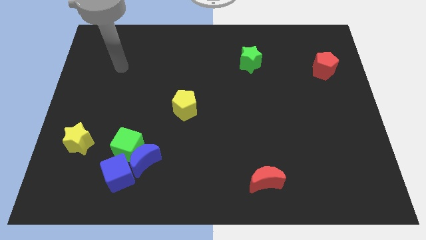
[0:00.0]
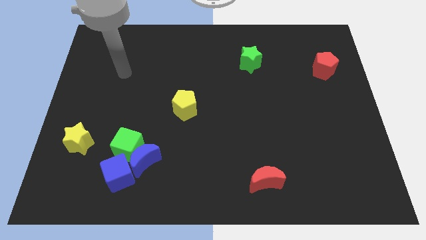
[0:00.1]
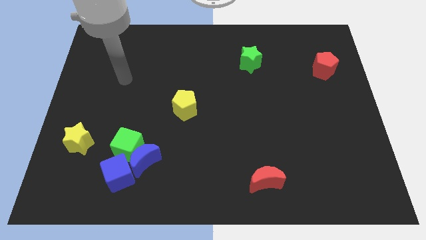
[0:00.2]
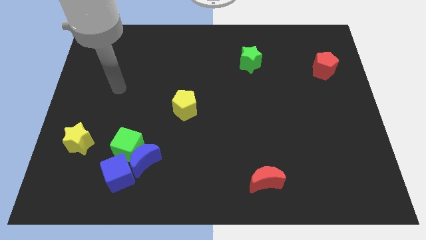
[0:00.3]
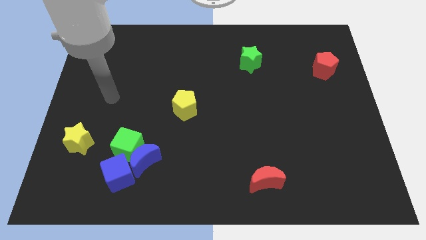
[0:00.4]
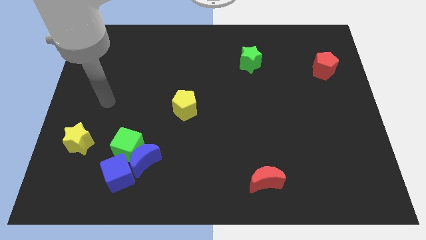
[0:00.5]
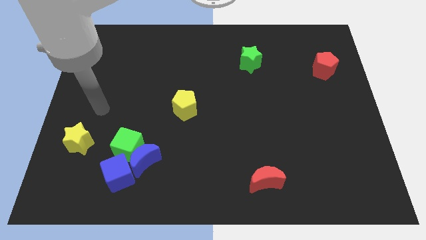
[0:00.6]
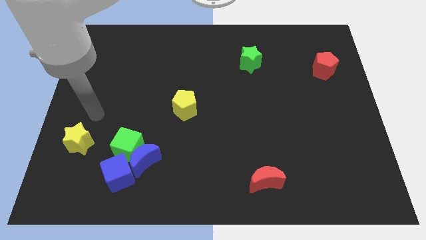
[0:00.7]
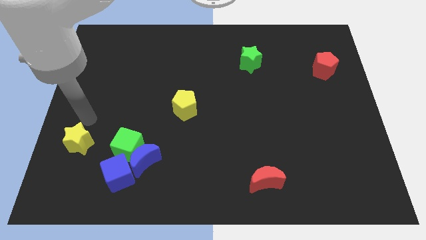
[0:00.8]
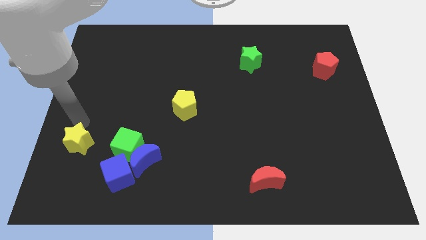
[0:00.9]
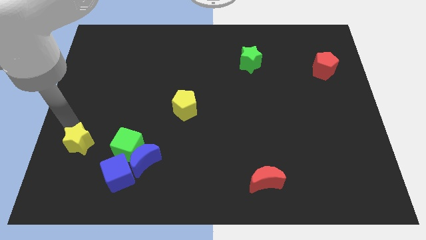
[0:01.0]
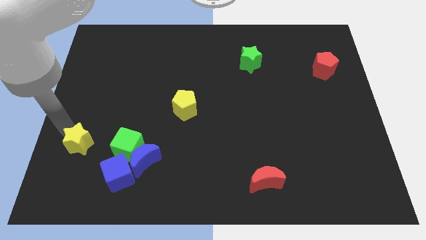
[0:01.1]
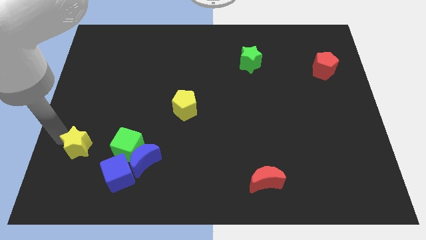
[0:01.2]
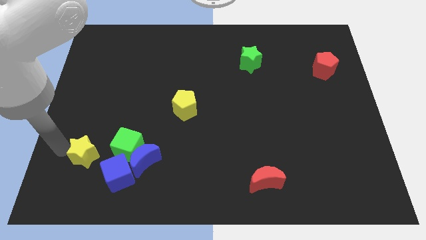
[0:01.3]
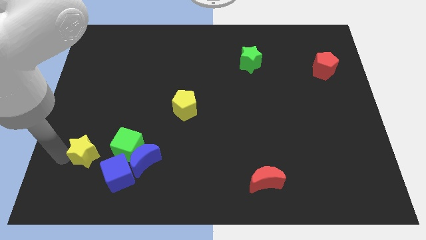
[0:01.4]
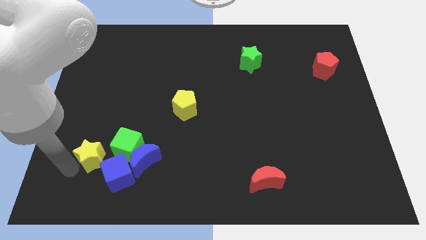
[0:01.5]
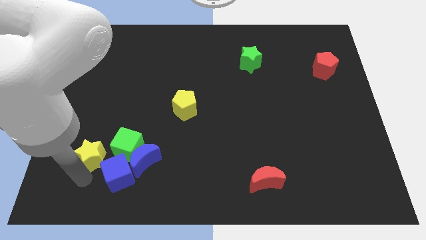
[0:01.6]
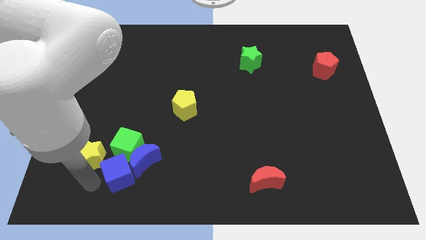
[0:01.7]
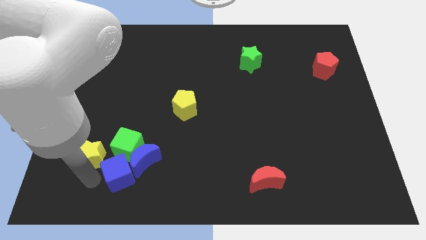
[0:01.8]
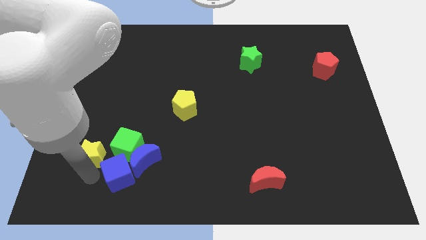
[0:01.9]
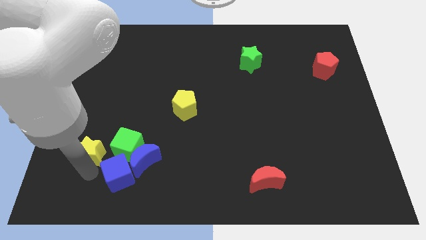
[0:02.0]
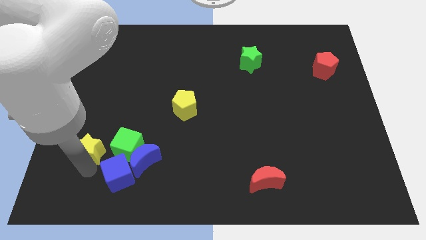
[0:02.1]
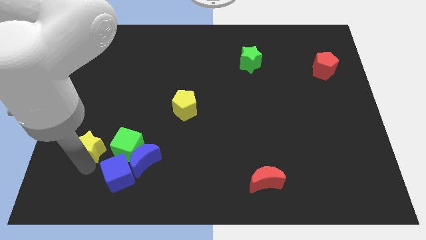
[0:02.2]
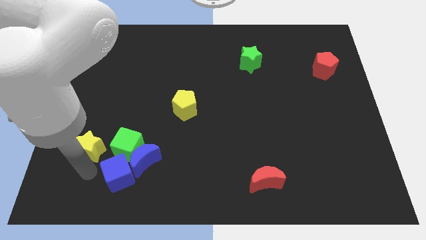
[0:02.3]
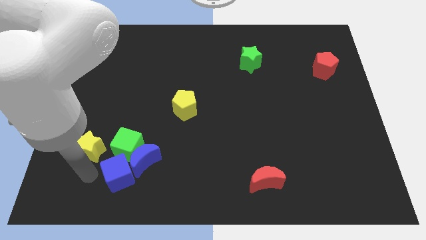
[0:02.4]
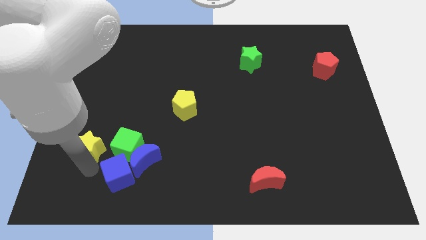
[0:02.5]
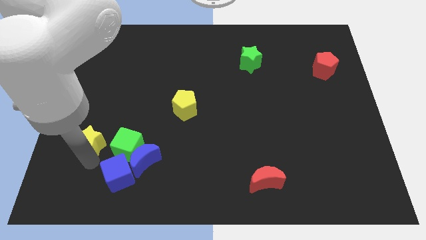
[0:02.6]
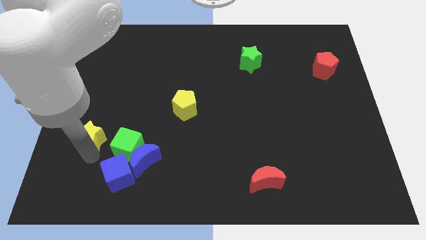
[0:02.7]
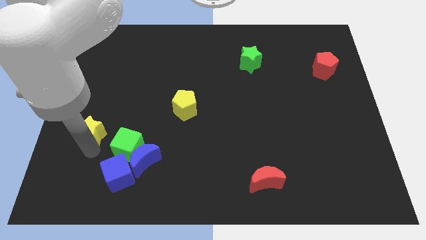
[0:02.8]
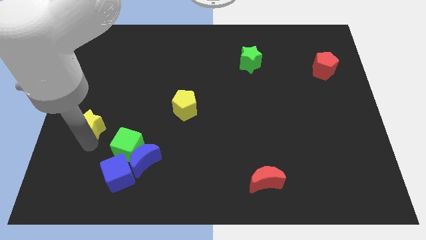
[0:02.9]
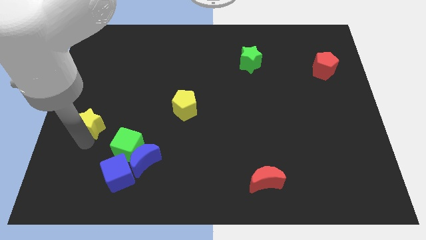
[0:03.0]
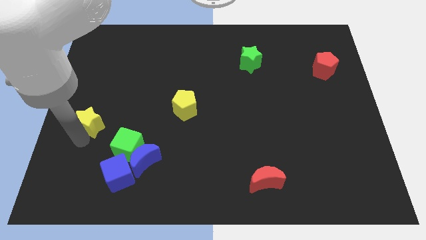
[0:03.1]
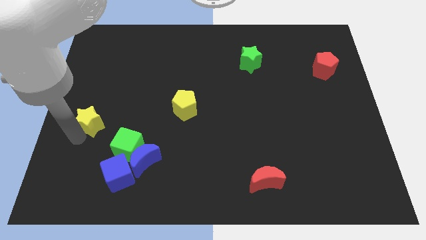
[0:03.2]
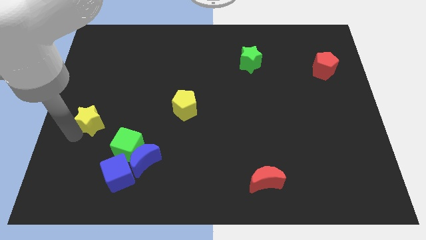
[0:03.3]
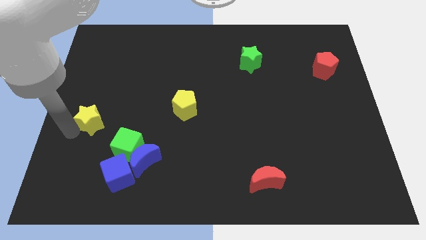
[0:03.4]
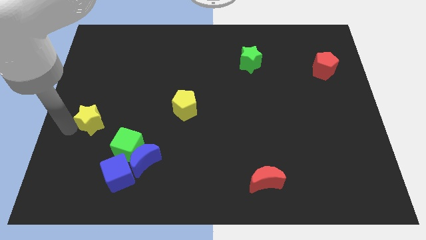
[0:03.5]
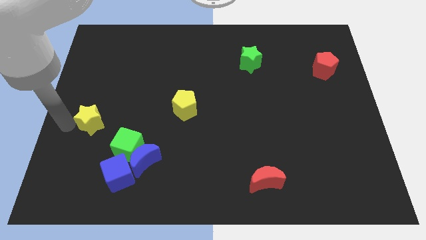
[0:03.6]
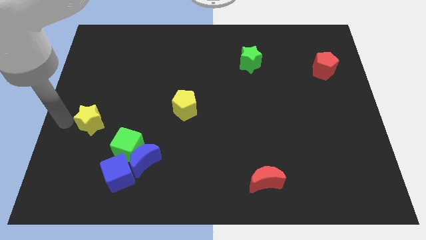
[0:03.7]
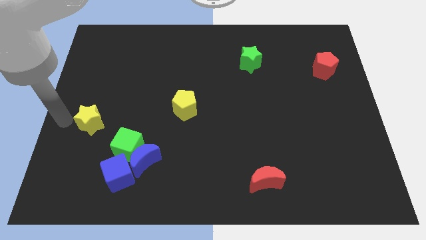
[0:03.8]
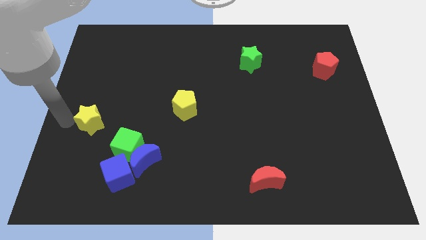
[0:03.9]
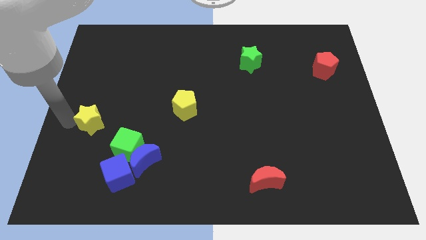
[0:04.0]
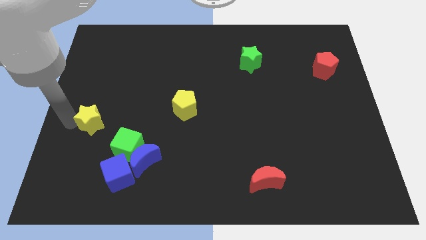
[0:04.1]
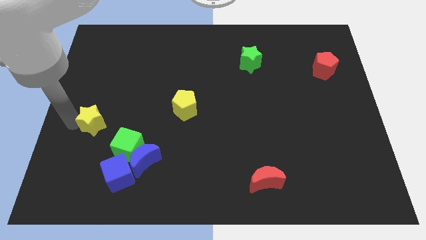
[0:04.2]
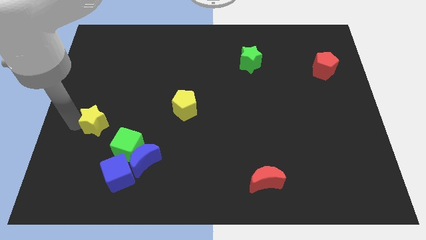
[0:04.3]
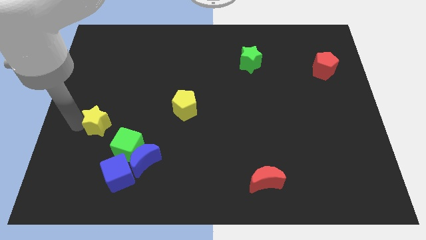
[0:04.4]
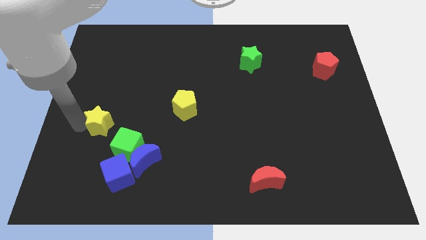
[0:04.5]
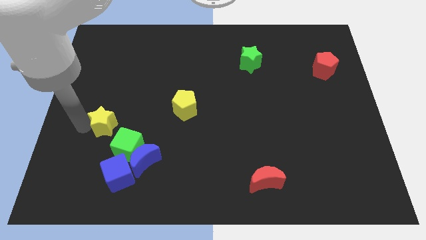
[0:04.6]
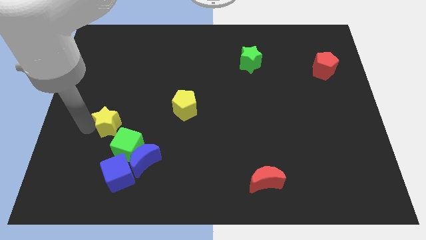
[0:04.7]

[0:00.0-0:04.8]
move the yellow star up and then to the right a little bit

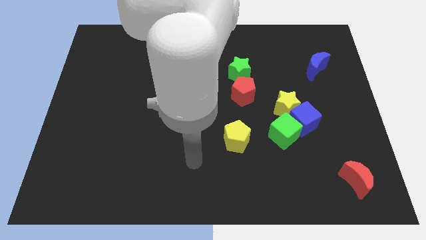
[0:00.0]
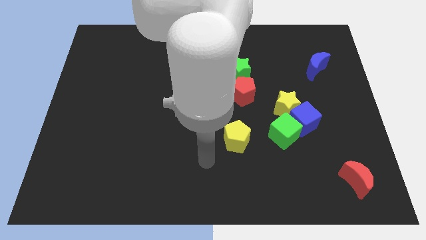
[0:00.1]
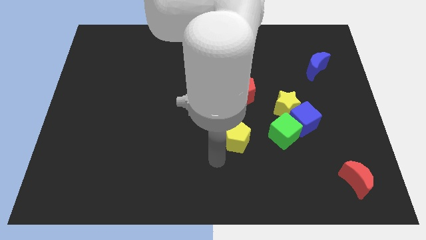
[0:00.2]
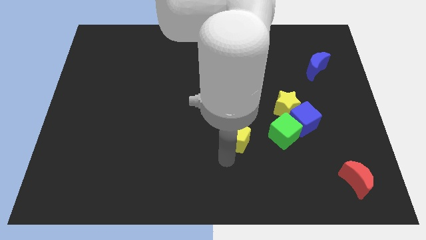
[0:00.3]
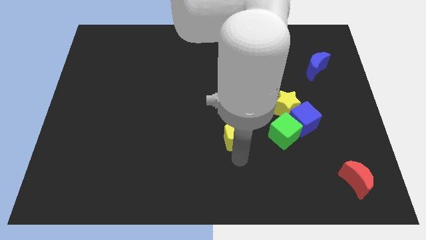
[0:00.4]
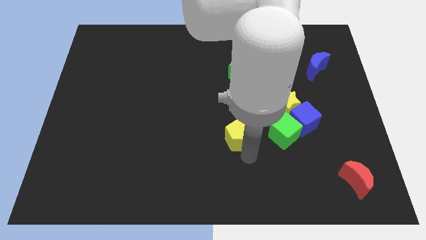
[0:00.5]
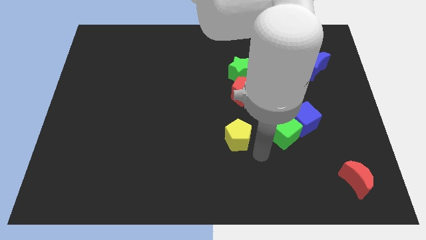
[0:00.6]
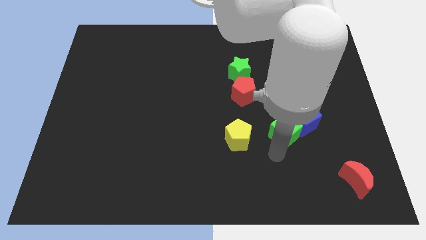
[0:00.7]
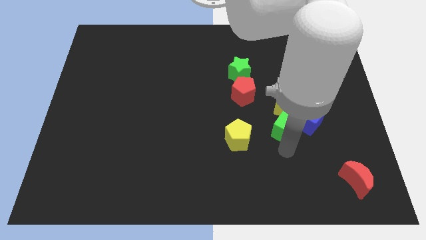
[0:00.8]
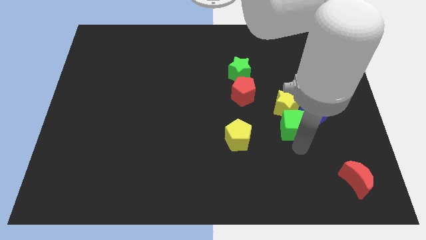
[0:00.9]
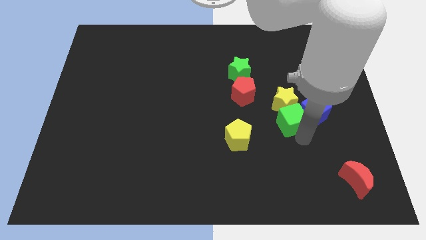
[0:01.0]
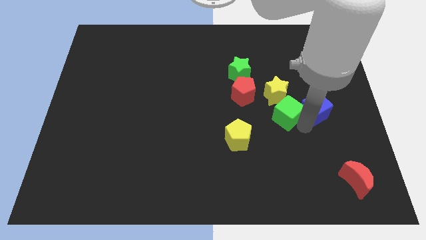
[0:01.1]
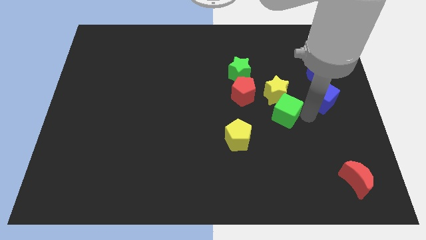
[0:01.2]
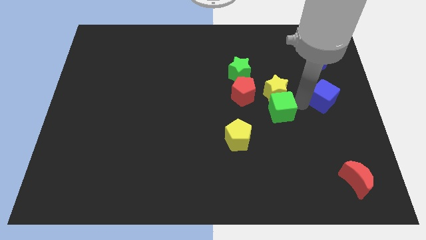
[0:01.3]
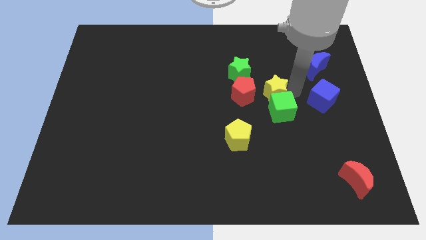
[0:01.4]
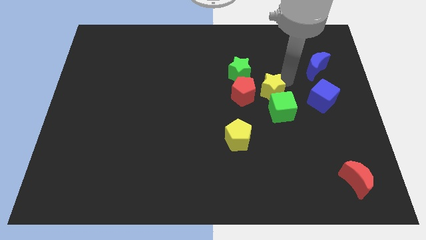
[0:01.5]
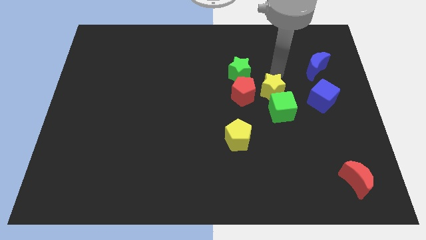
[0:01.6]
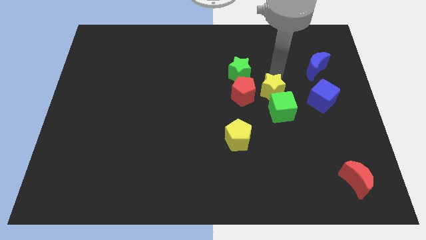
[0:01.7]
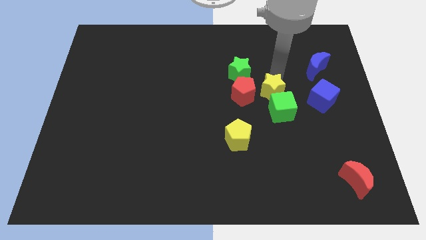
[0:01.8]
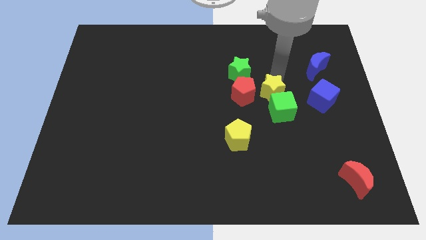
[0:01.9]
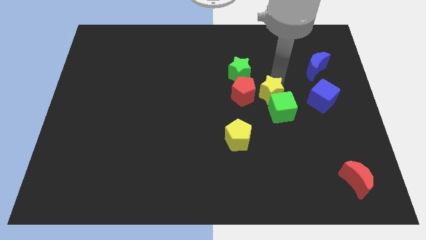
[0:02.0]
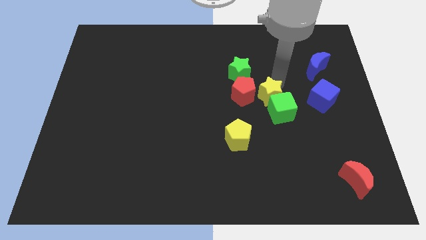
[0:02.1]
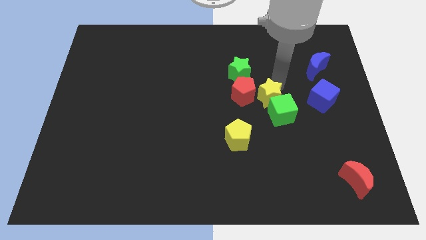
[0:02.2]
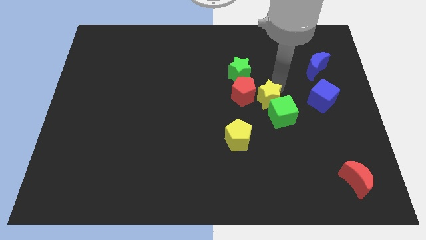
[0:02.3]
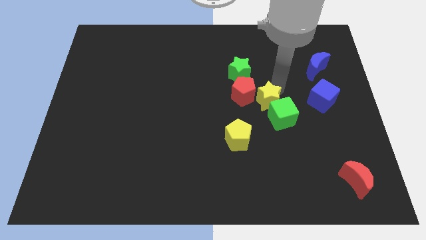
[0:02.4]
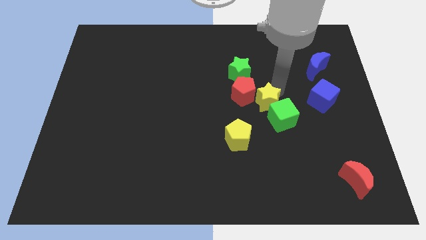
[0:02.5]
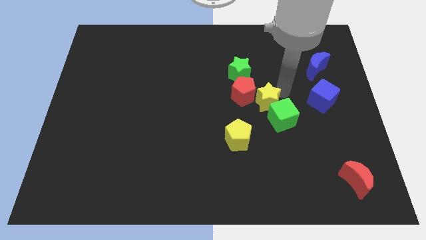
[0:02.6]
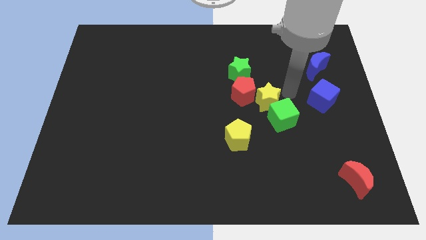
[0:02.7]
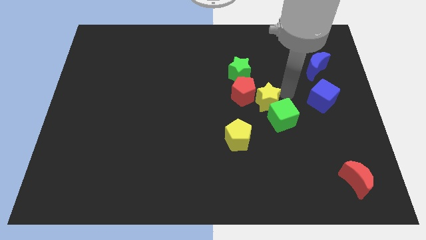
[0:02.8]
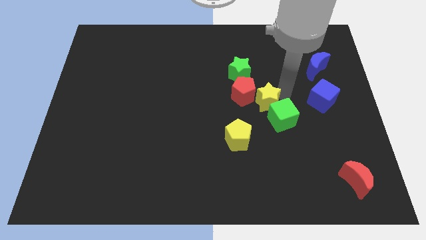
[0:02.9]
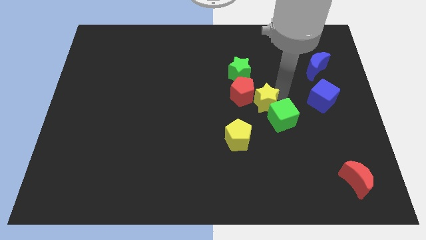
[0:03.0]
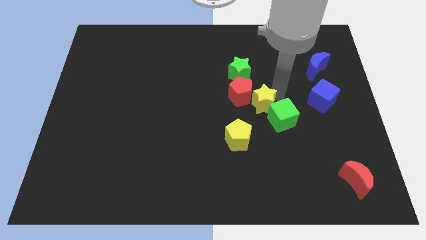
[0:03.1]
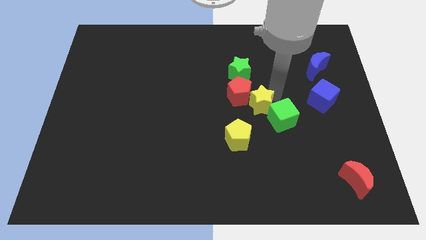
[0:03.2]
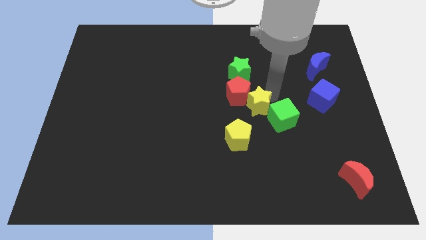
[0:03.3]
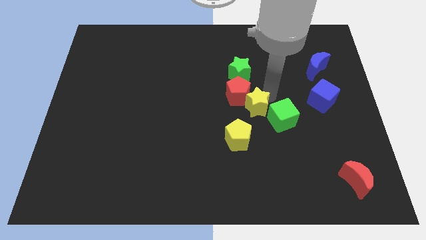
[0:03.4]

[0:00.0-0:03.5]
move the yellow star to the left somewhat
